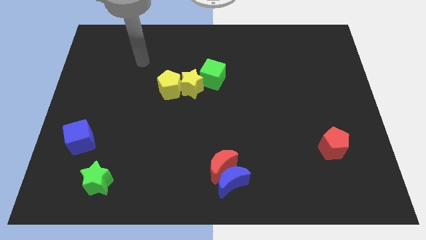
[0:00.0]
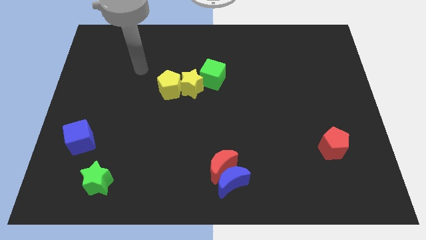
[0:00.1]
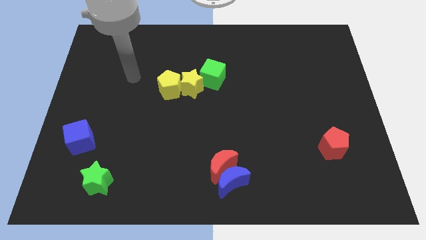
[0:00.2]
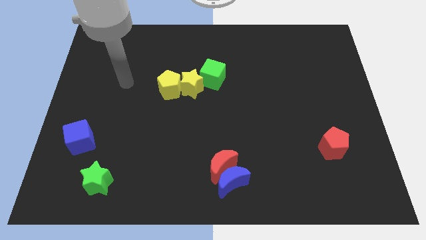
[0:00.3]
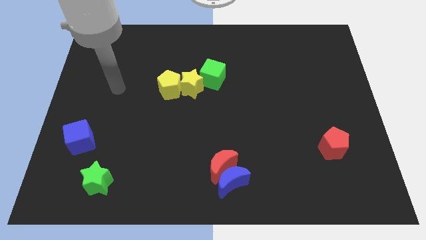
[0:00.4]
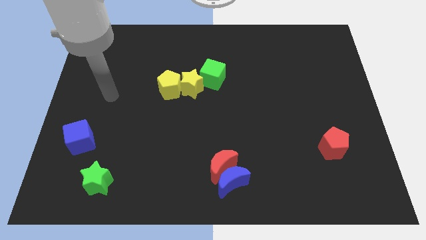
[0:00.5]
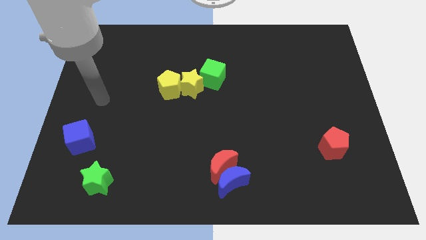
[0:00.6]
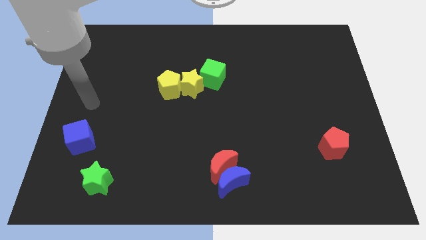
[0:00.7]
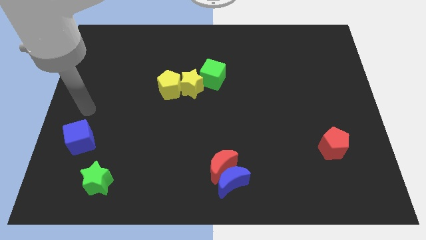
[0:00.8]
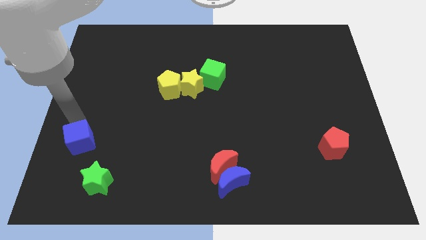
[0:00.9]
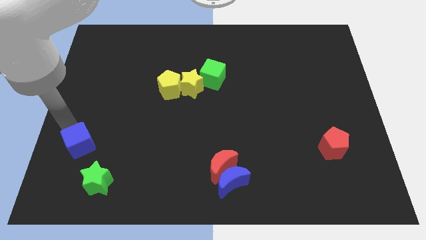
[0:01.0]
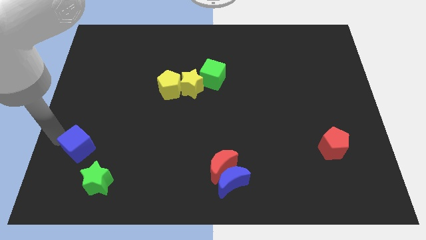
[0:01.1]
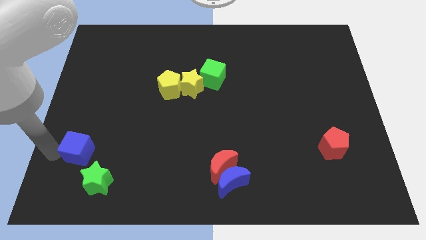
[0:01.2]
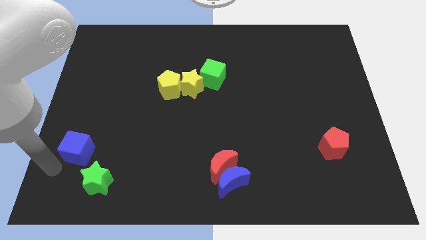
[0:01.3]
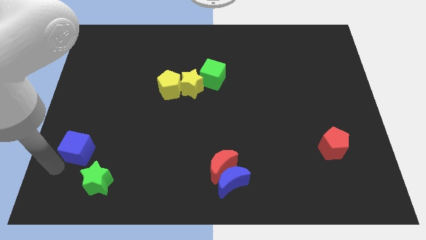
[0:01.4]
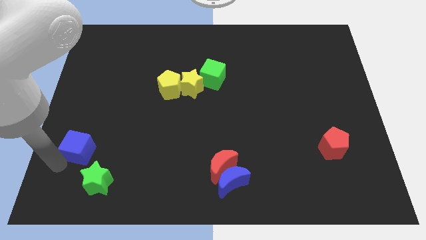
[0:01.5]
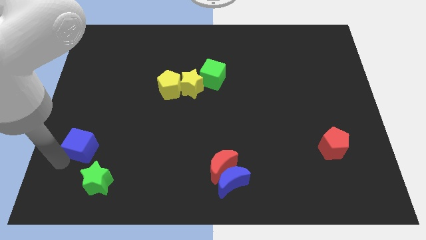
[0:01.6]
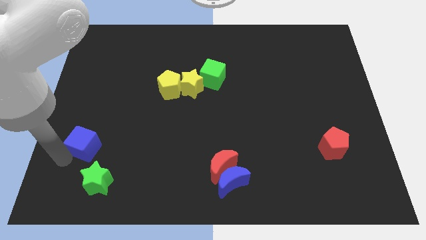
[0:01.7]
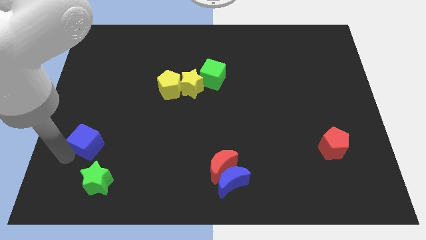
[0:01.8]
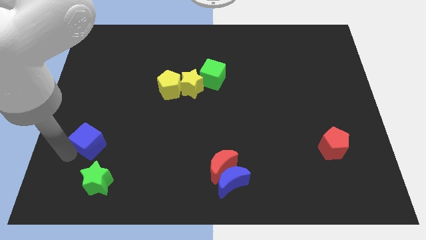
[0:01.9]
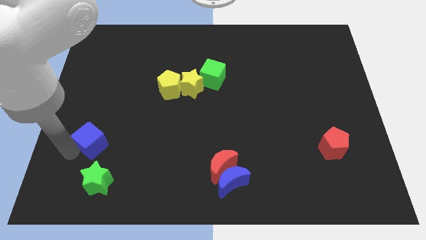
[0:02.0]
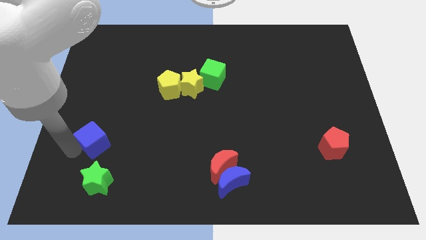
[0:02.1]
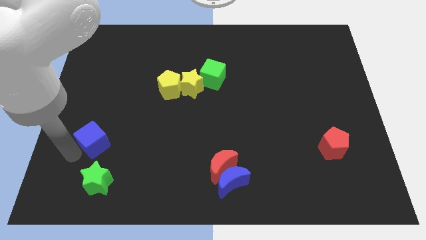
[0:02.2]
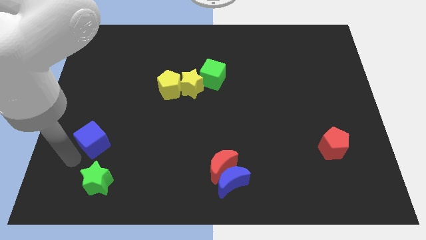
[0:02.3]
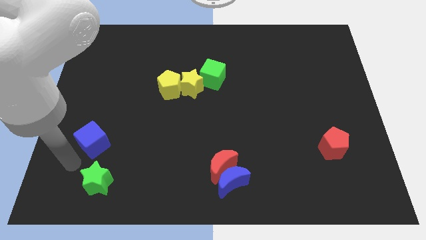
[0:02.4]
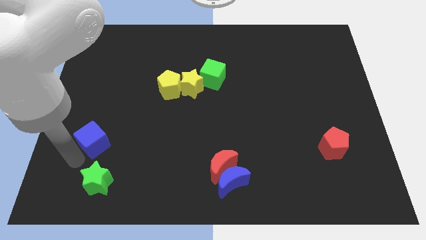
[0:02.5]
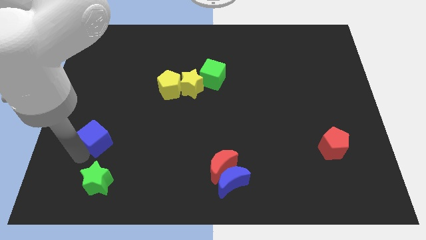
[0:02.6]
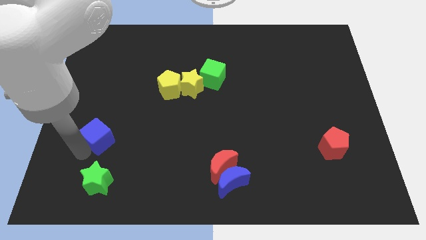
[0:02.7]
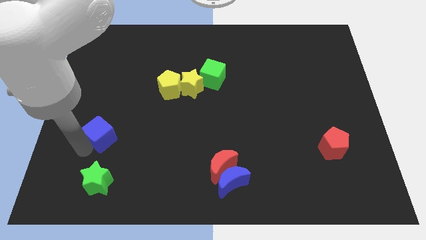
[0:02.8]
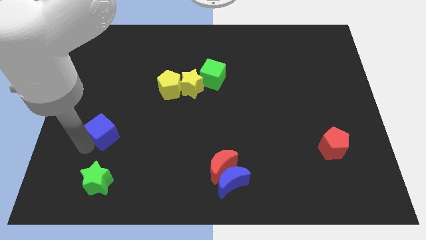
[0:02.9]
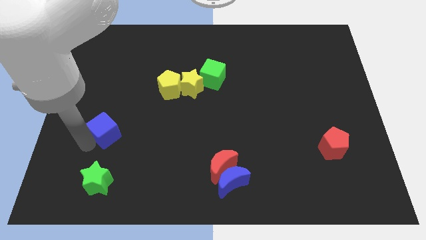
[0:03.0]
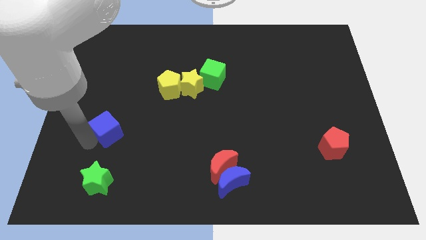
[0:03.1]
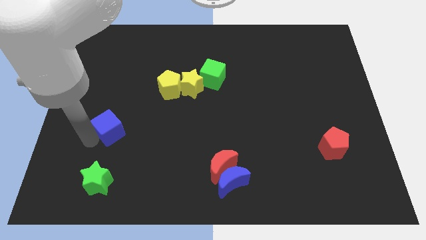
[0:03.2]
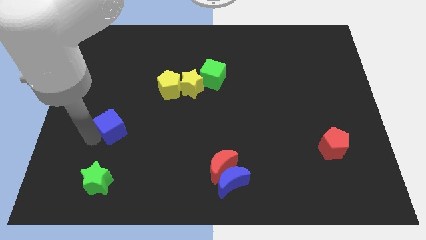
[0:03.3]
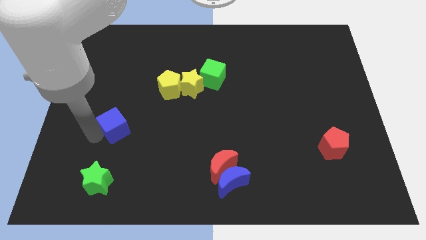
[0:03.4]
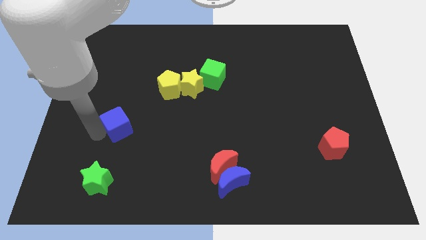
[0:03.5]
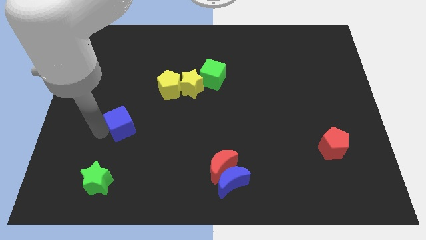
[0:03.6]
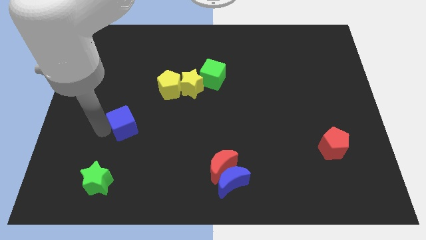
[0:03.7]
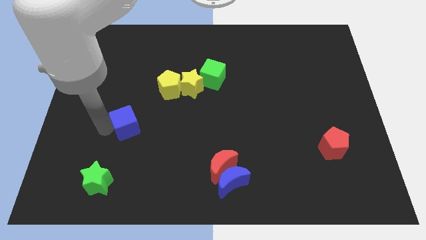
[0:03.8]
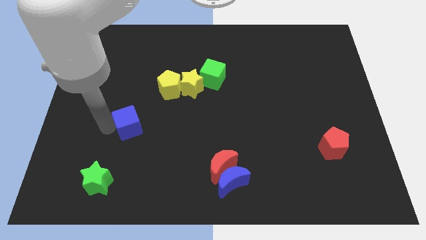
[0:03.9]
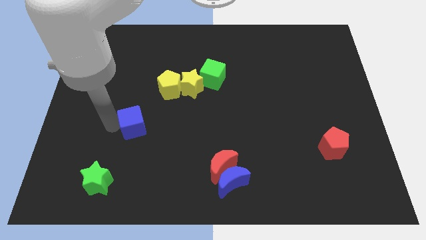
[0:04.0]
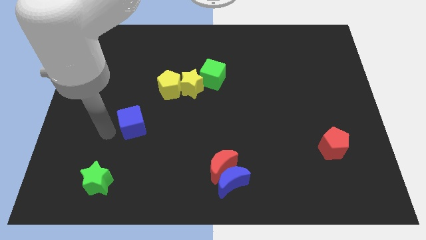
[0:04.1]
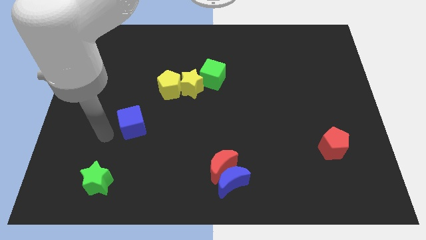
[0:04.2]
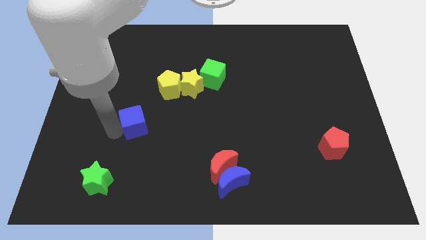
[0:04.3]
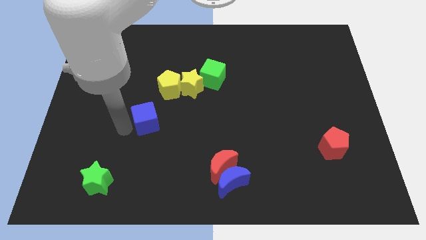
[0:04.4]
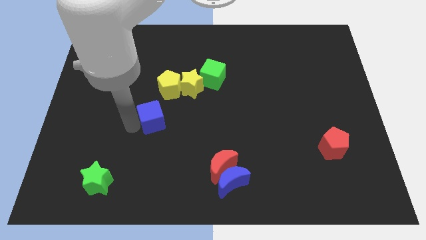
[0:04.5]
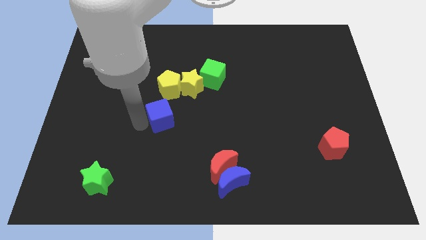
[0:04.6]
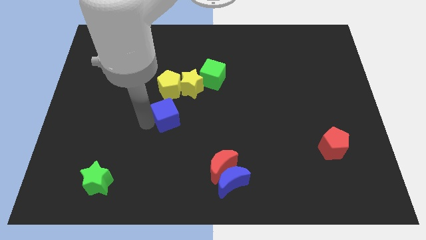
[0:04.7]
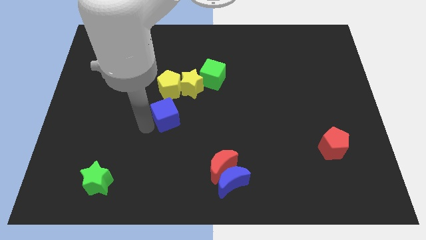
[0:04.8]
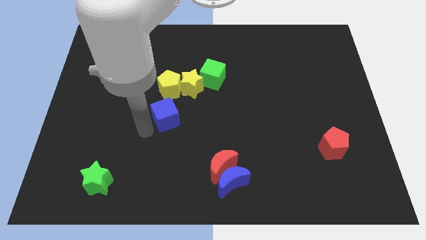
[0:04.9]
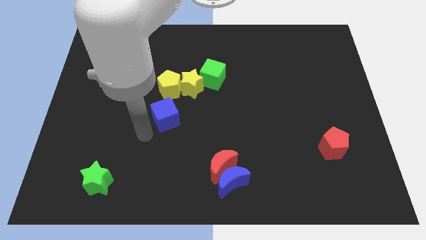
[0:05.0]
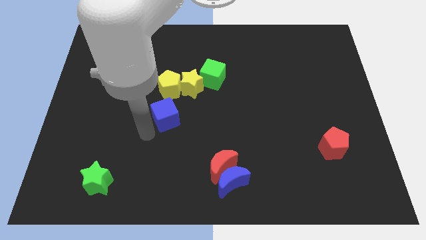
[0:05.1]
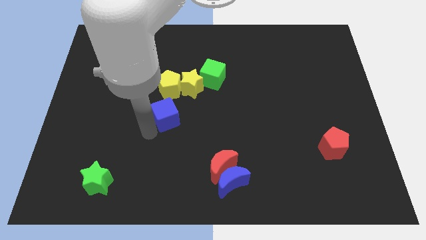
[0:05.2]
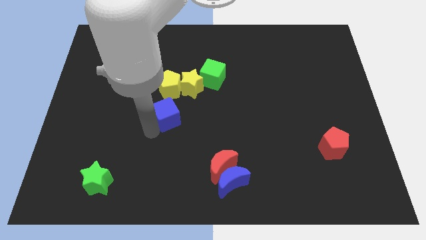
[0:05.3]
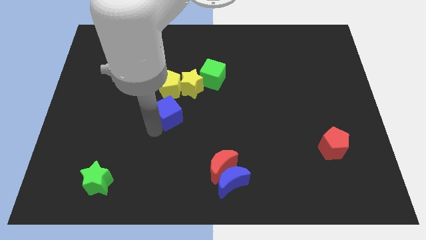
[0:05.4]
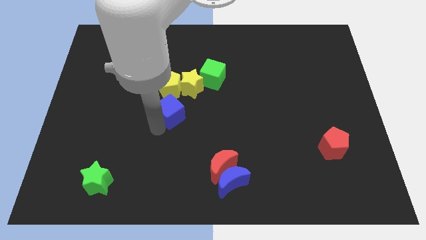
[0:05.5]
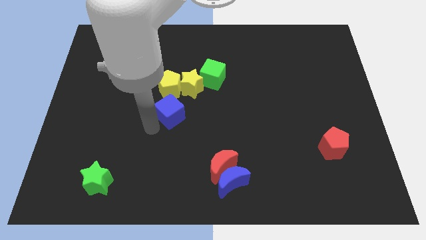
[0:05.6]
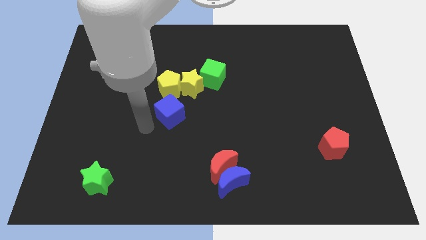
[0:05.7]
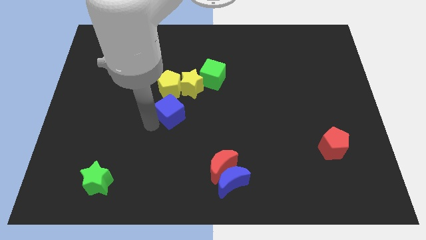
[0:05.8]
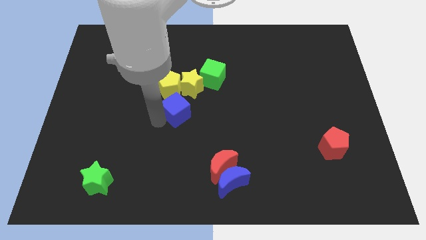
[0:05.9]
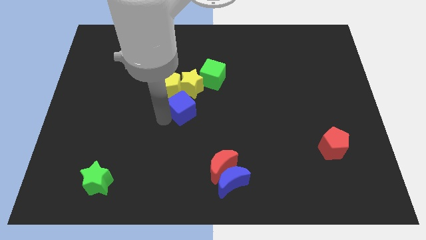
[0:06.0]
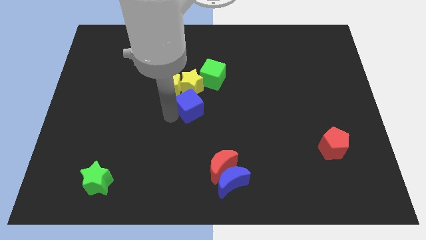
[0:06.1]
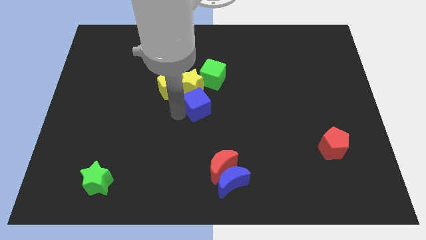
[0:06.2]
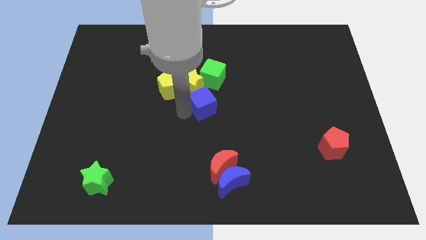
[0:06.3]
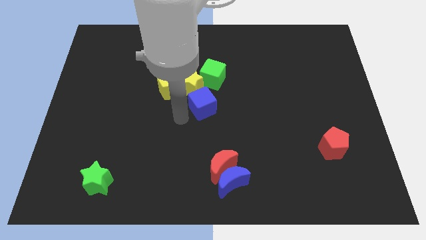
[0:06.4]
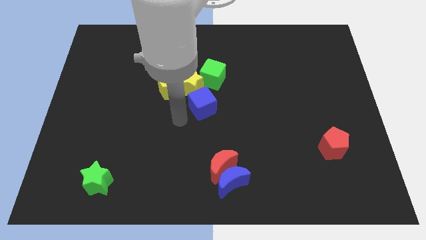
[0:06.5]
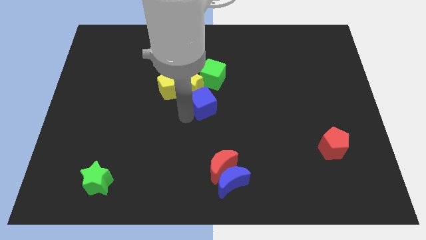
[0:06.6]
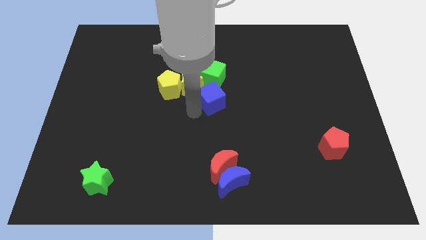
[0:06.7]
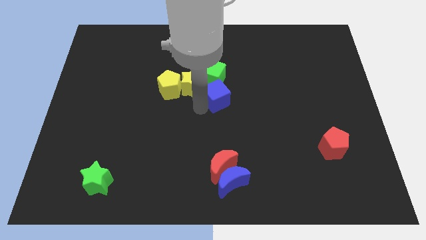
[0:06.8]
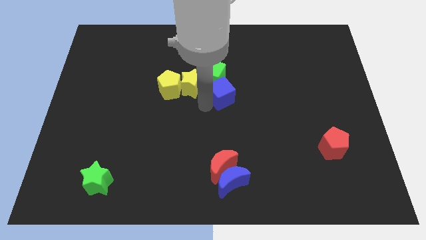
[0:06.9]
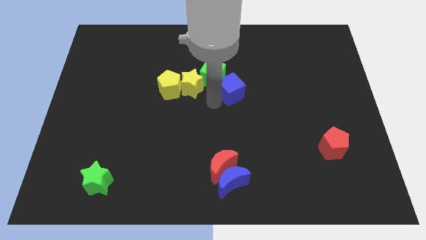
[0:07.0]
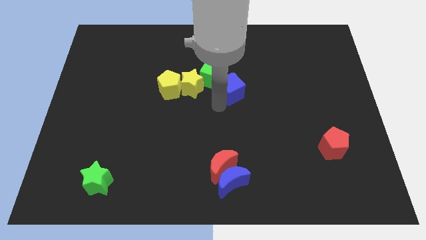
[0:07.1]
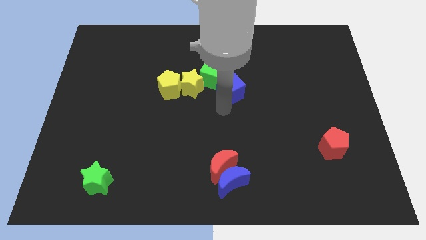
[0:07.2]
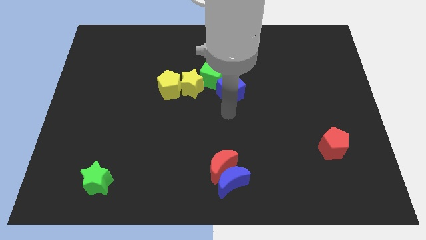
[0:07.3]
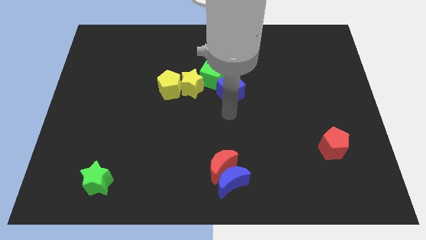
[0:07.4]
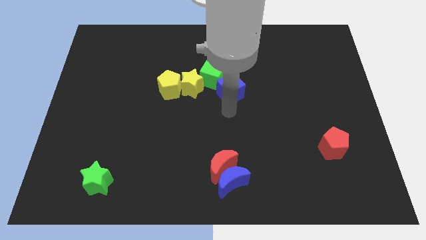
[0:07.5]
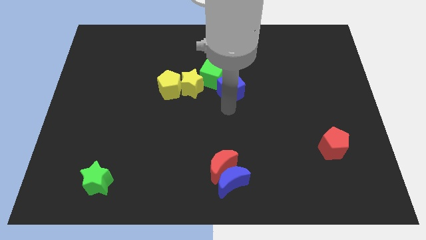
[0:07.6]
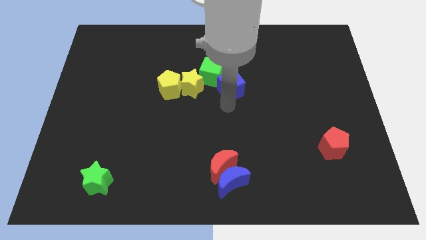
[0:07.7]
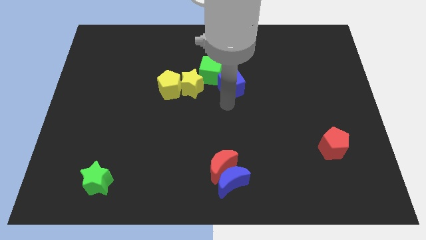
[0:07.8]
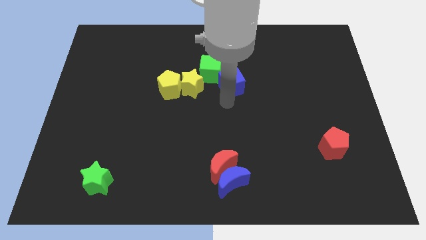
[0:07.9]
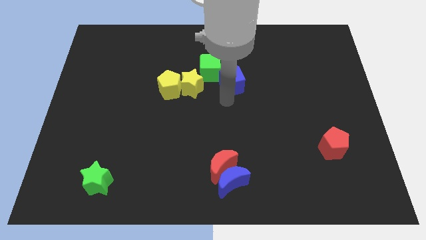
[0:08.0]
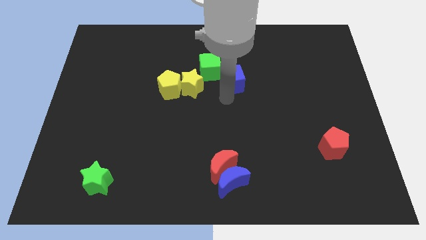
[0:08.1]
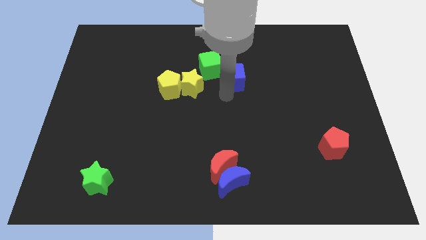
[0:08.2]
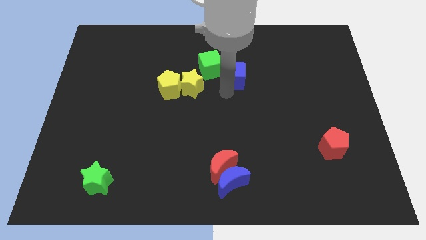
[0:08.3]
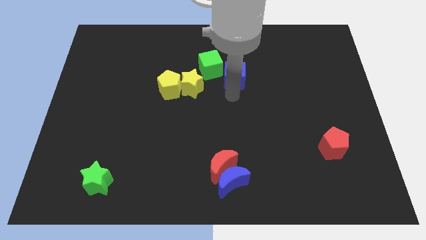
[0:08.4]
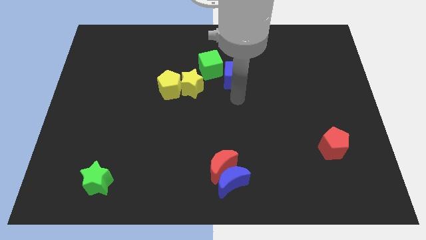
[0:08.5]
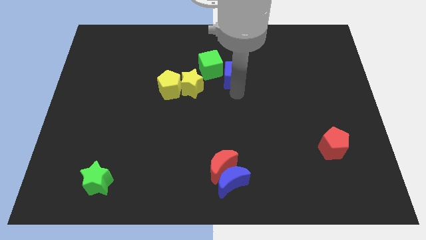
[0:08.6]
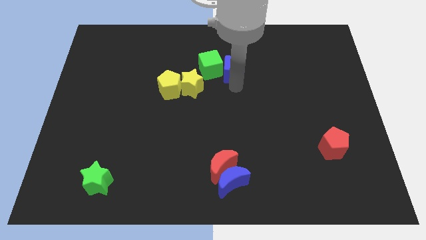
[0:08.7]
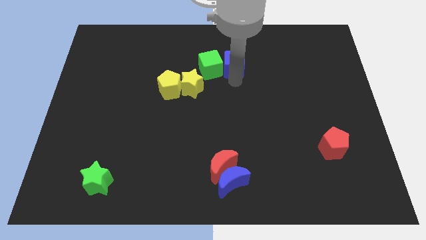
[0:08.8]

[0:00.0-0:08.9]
move the blue cube to the top right side of the green cube
